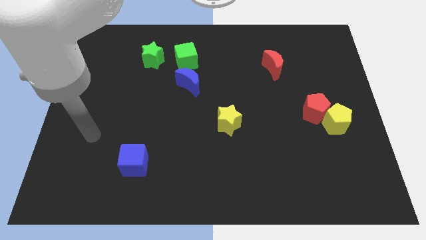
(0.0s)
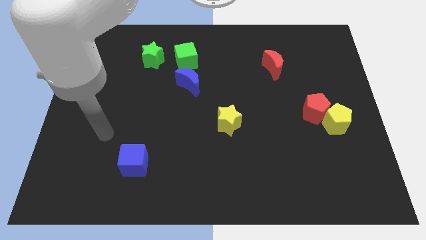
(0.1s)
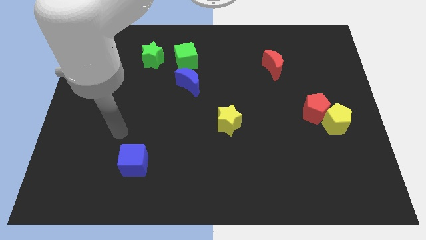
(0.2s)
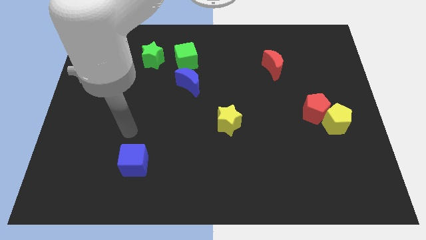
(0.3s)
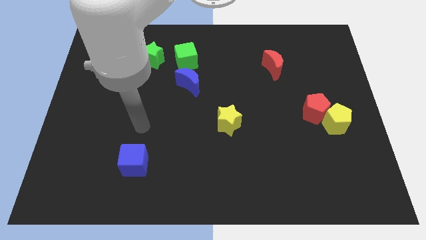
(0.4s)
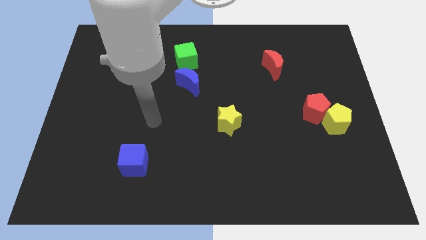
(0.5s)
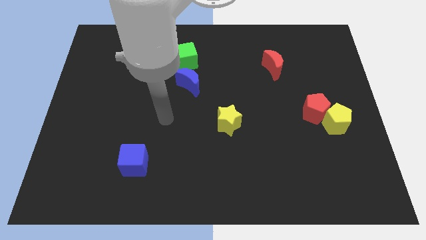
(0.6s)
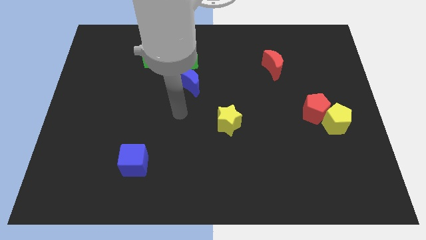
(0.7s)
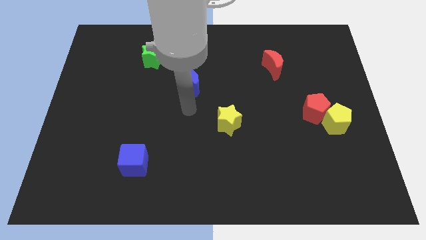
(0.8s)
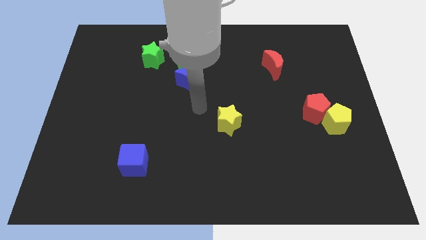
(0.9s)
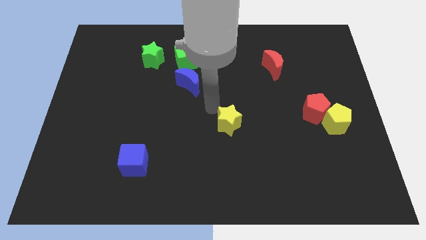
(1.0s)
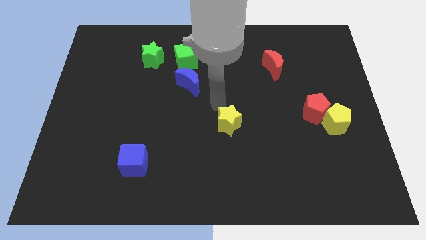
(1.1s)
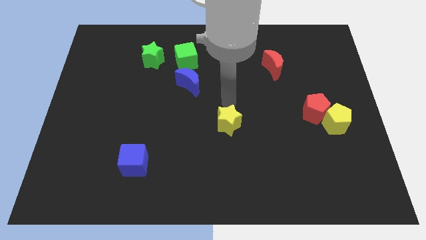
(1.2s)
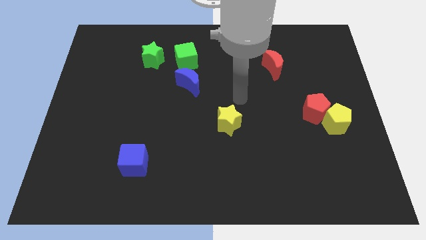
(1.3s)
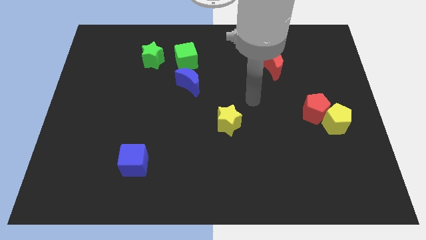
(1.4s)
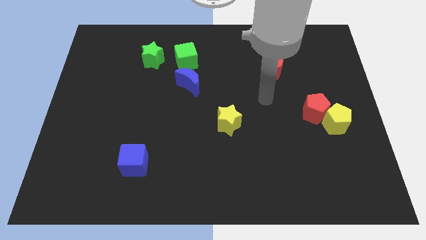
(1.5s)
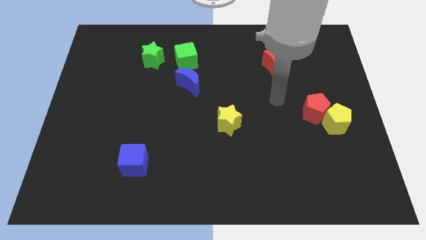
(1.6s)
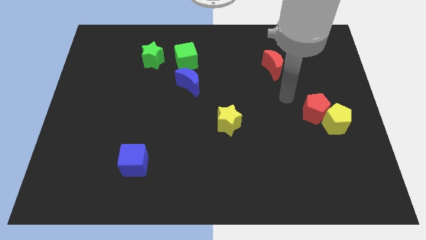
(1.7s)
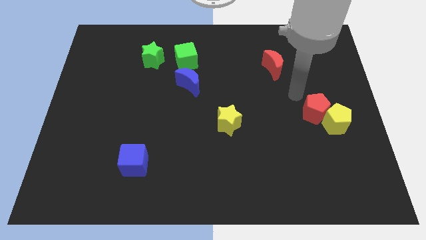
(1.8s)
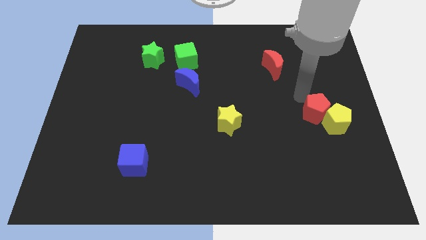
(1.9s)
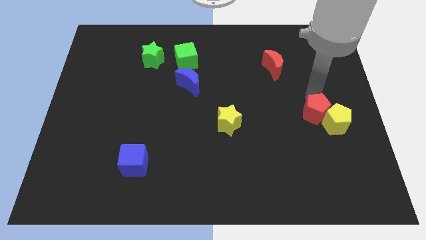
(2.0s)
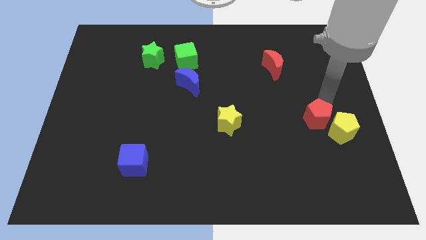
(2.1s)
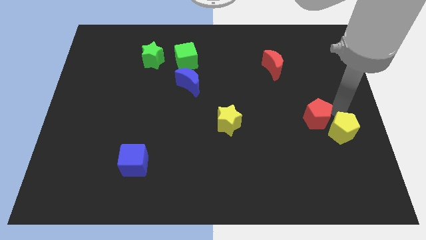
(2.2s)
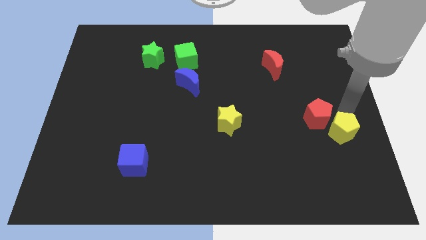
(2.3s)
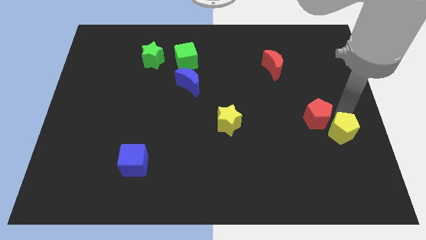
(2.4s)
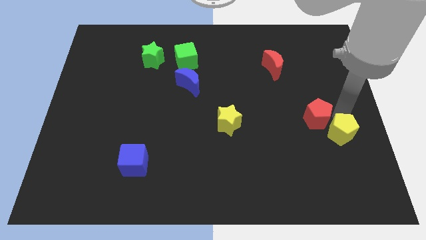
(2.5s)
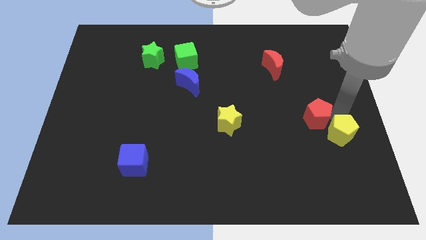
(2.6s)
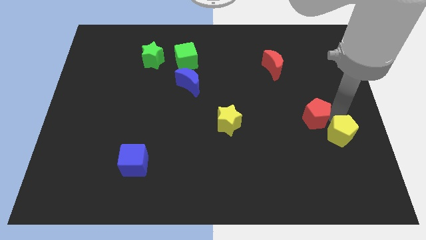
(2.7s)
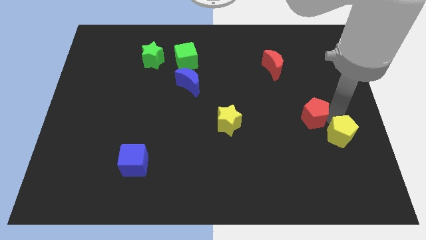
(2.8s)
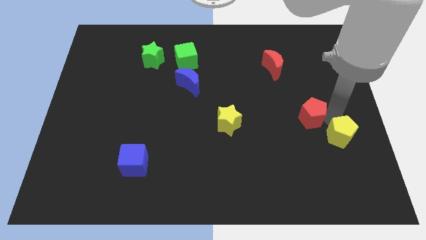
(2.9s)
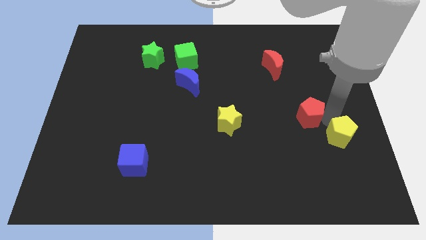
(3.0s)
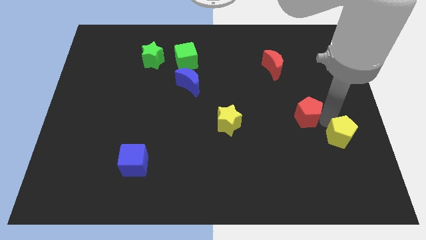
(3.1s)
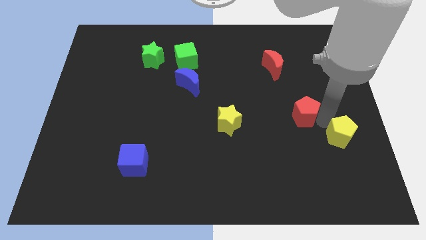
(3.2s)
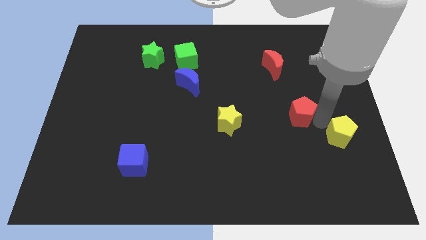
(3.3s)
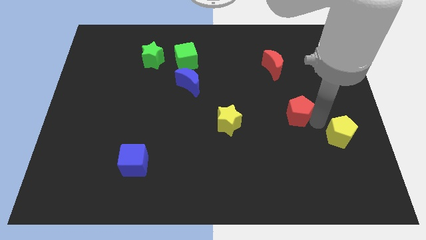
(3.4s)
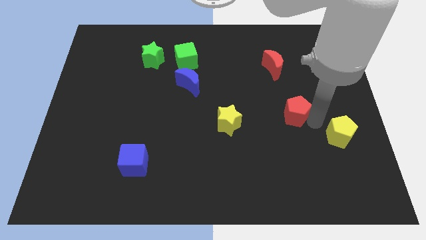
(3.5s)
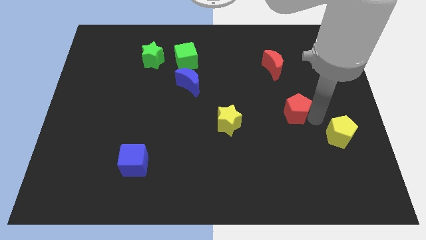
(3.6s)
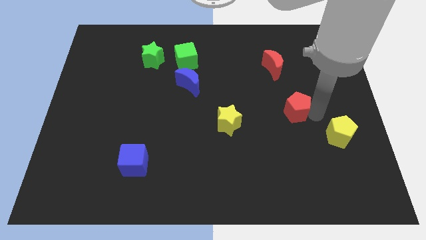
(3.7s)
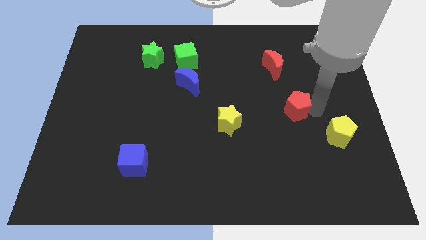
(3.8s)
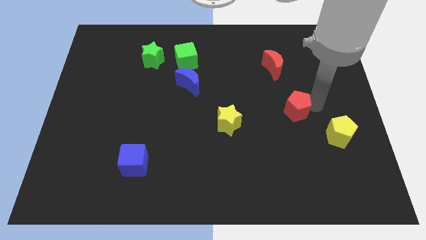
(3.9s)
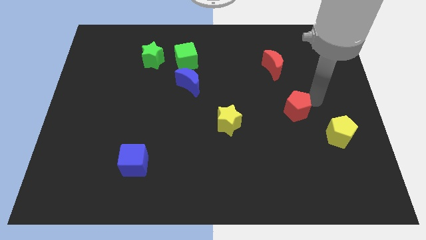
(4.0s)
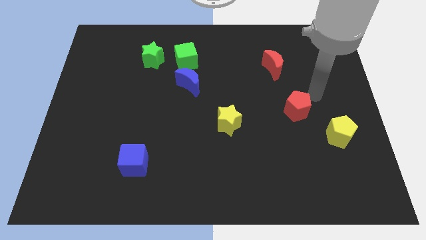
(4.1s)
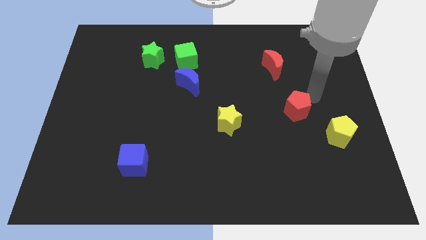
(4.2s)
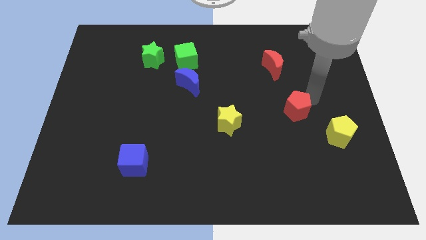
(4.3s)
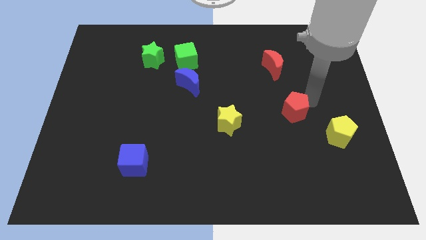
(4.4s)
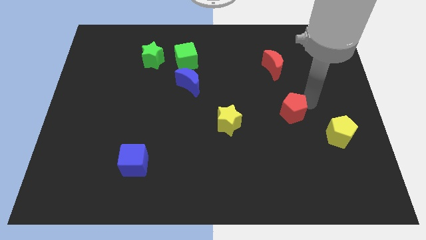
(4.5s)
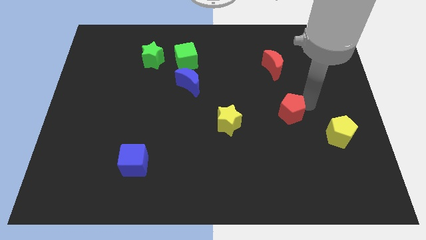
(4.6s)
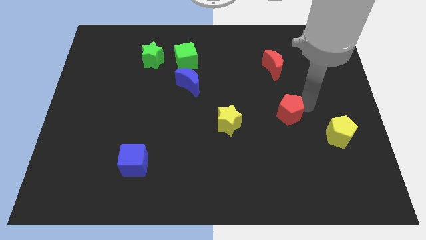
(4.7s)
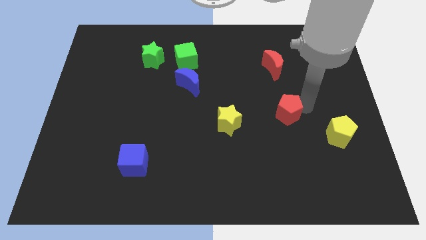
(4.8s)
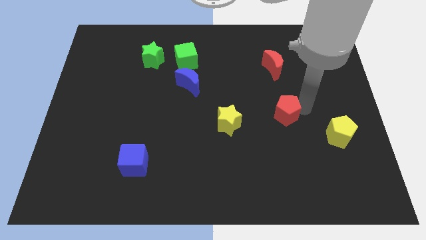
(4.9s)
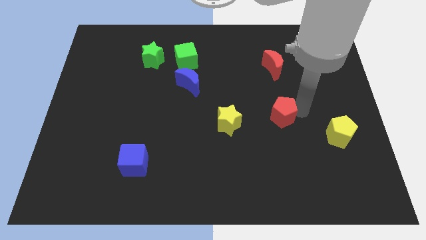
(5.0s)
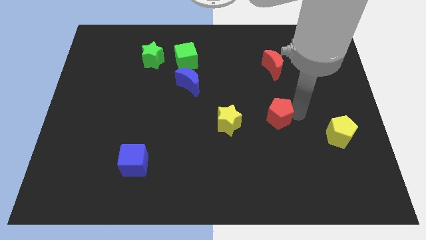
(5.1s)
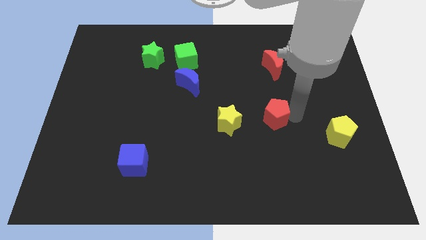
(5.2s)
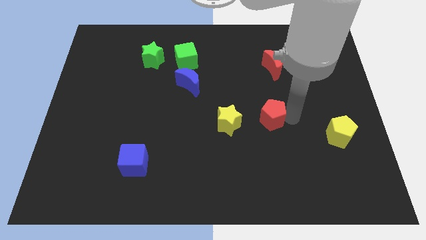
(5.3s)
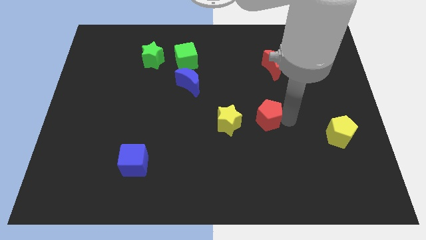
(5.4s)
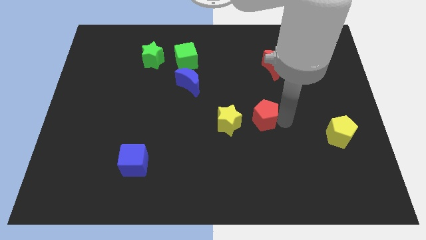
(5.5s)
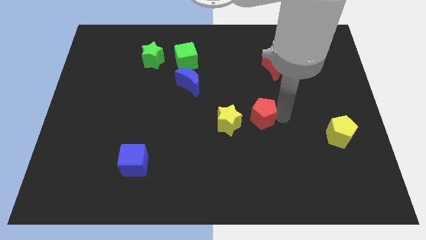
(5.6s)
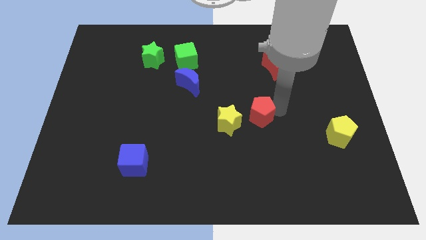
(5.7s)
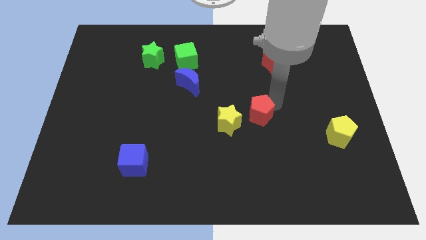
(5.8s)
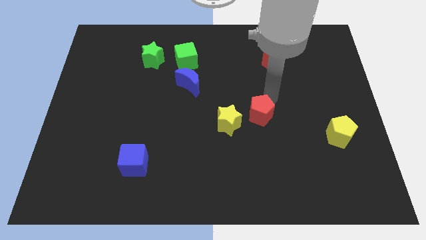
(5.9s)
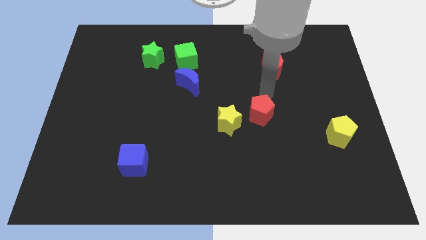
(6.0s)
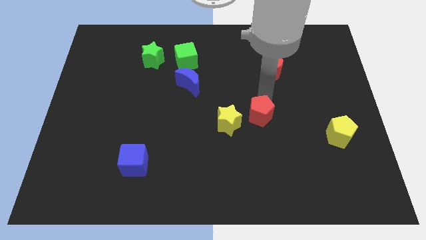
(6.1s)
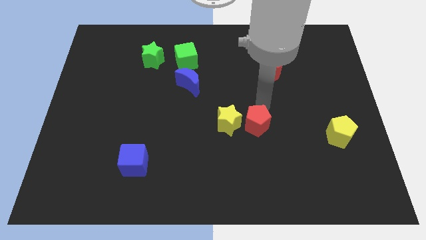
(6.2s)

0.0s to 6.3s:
slide the red pentagon diagonally down and to the right of the yellow star
